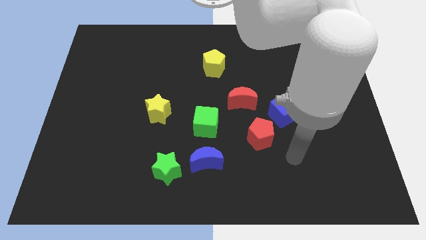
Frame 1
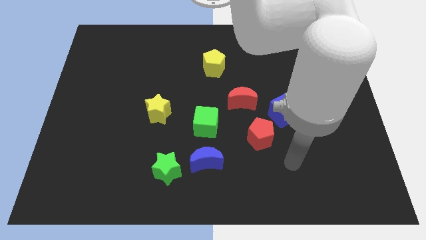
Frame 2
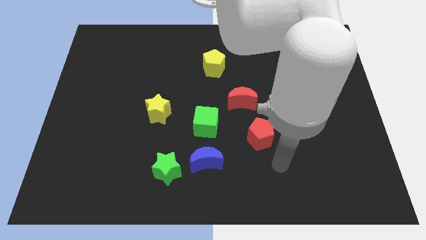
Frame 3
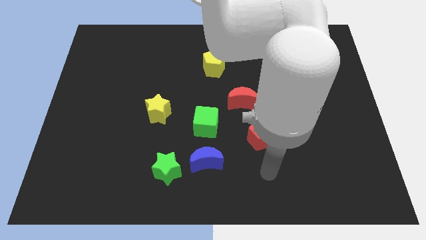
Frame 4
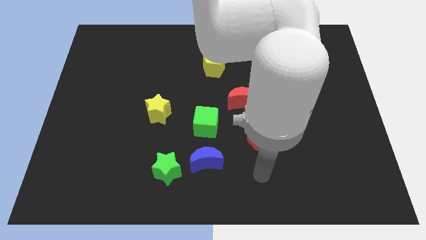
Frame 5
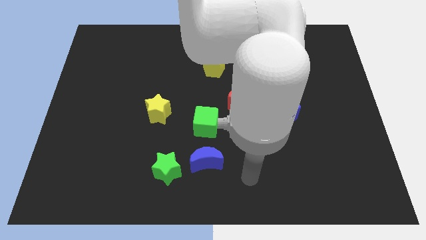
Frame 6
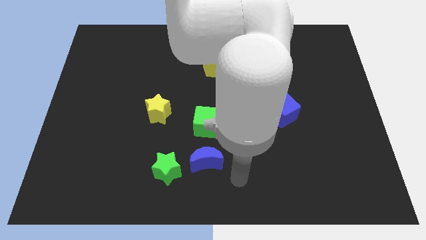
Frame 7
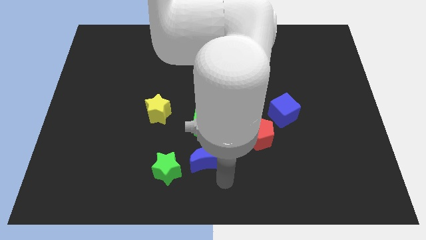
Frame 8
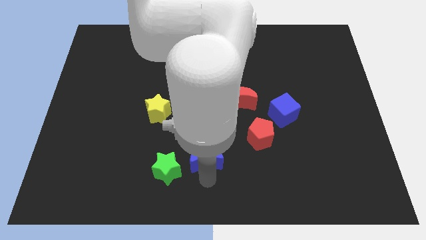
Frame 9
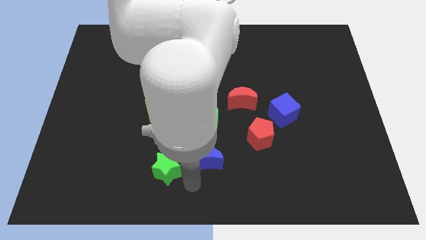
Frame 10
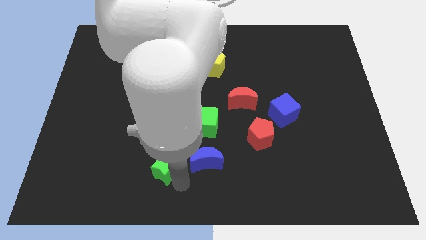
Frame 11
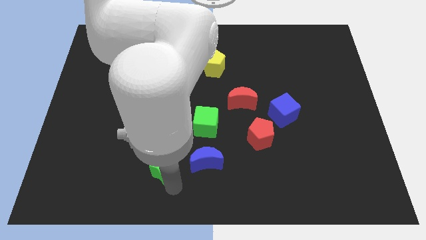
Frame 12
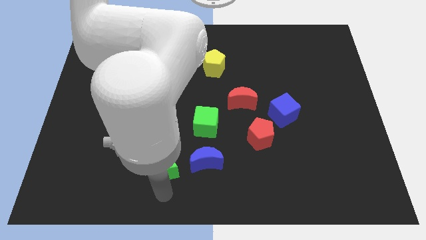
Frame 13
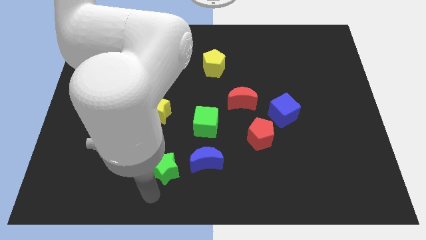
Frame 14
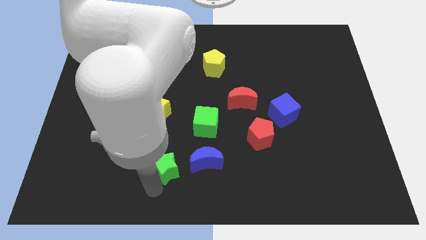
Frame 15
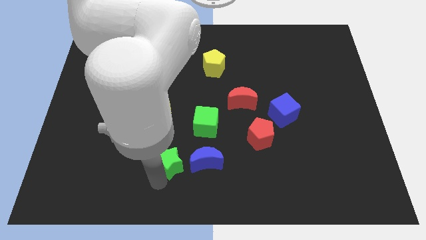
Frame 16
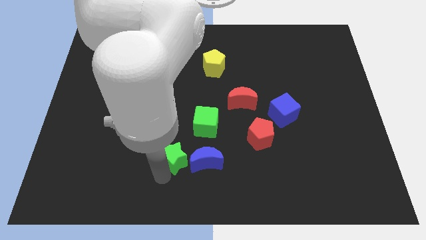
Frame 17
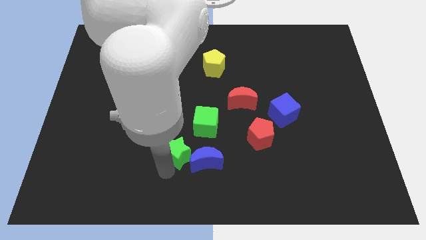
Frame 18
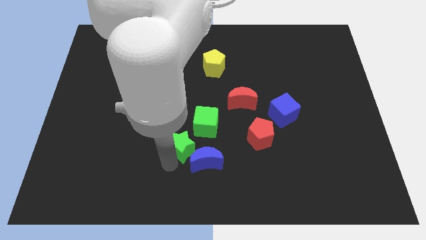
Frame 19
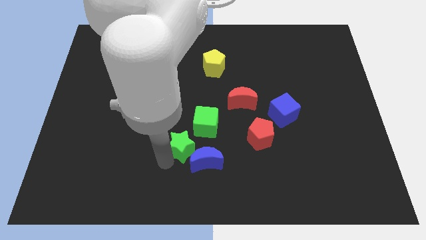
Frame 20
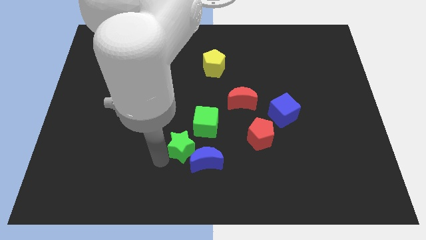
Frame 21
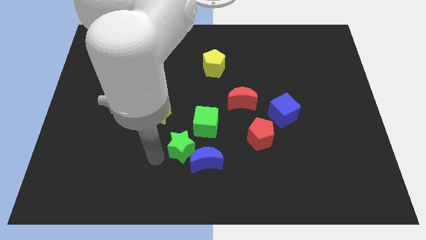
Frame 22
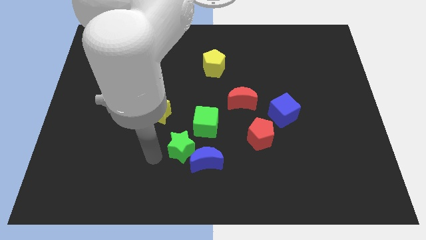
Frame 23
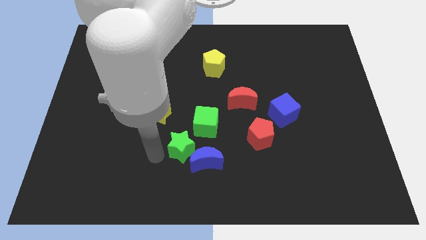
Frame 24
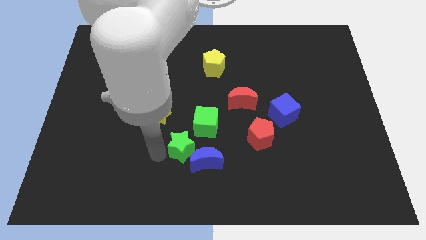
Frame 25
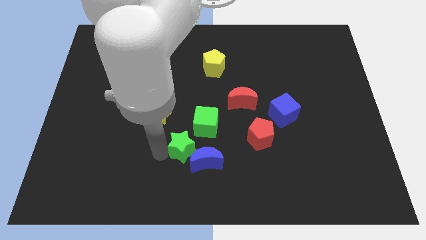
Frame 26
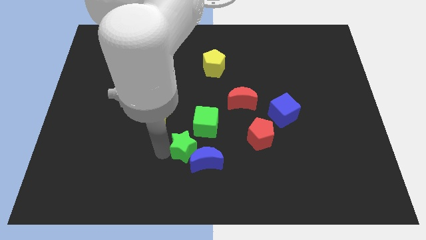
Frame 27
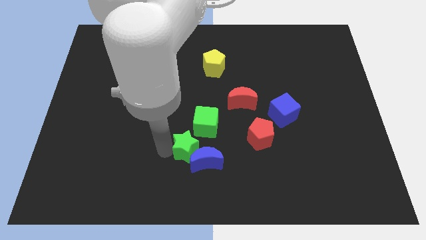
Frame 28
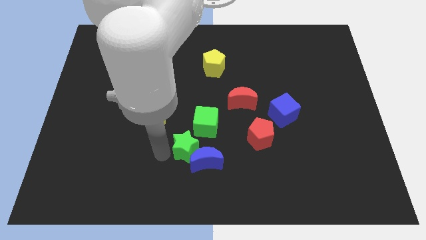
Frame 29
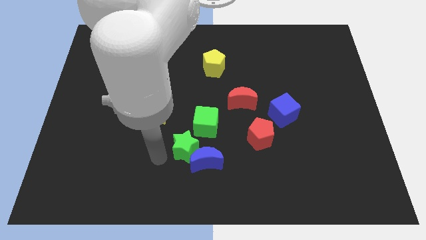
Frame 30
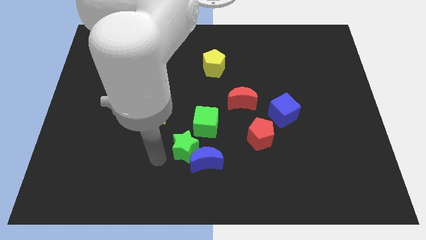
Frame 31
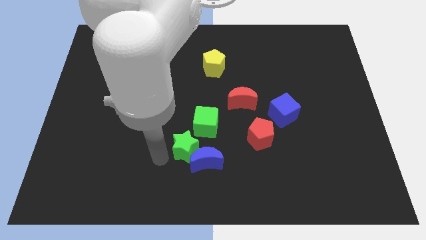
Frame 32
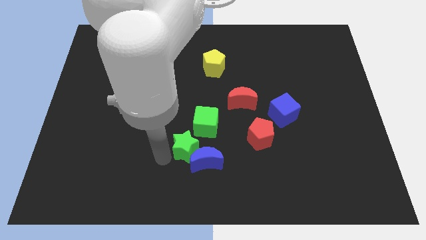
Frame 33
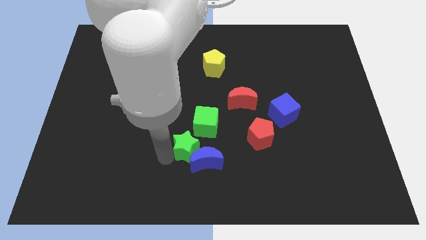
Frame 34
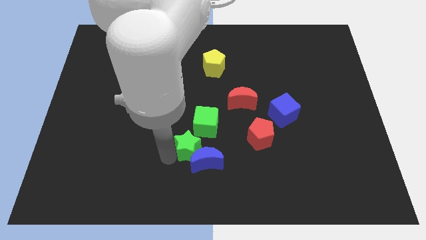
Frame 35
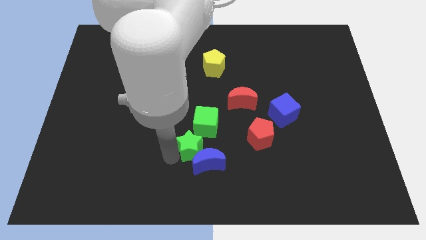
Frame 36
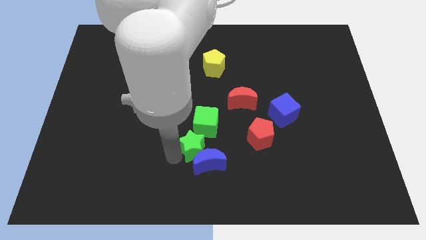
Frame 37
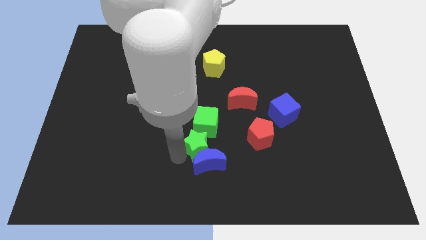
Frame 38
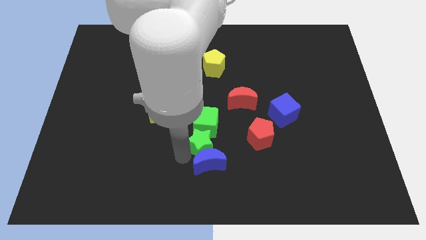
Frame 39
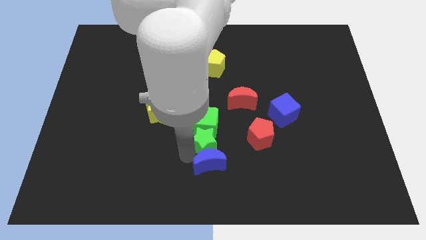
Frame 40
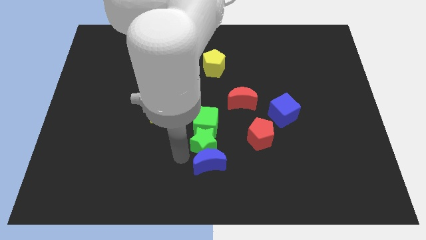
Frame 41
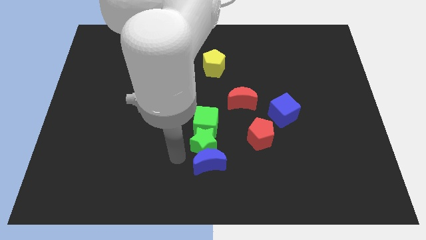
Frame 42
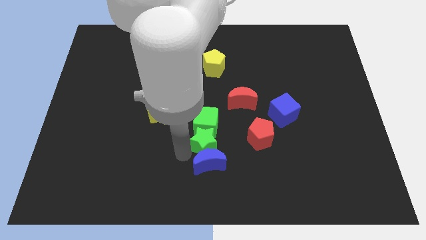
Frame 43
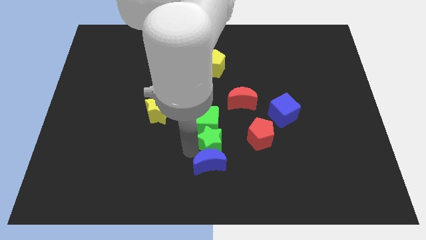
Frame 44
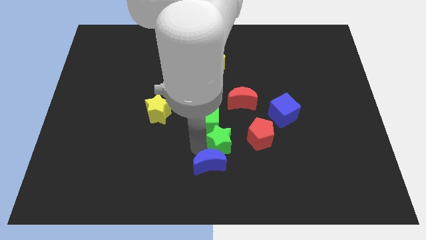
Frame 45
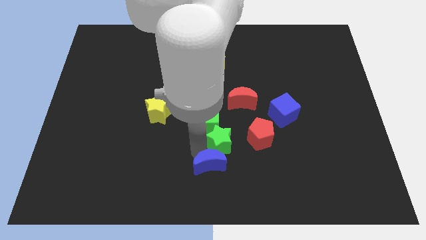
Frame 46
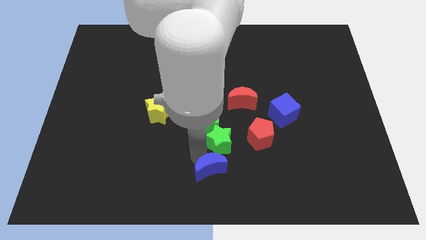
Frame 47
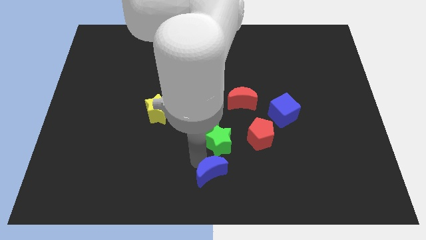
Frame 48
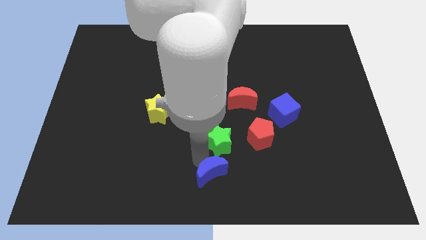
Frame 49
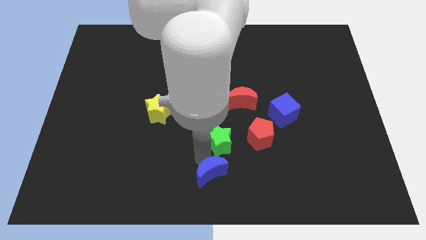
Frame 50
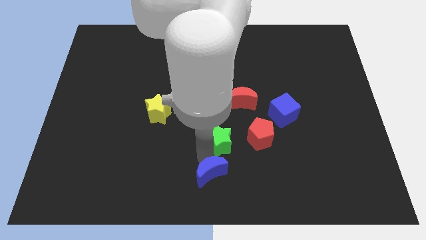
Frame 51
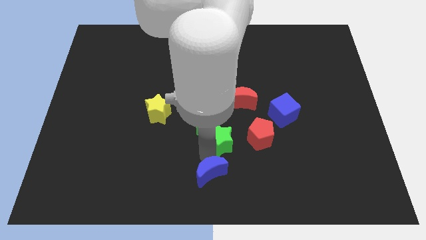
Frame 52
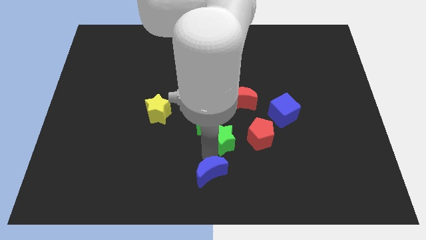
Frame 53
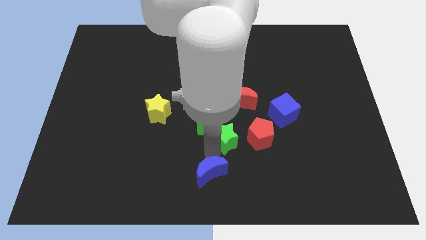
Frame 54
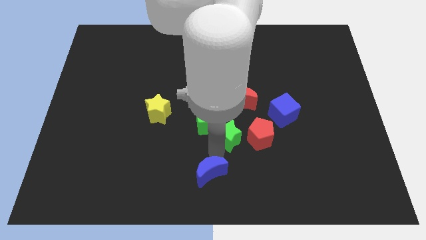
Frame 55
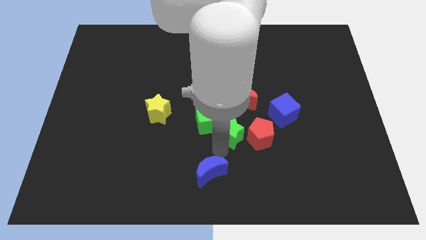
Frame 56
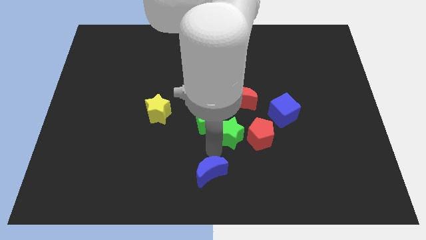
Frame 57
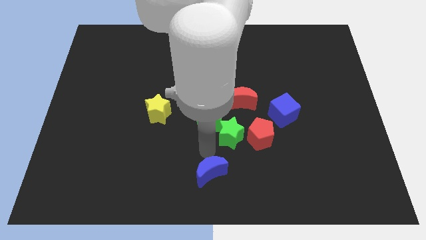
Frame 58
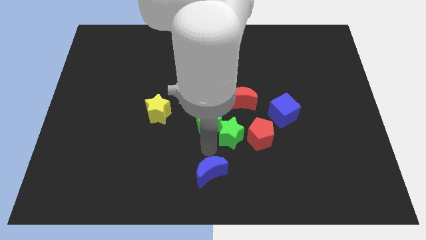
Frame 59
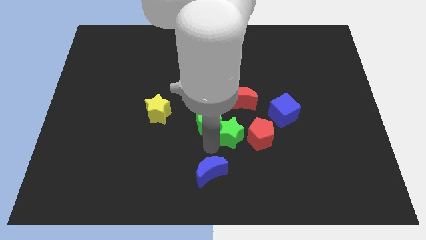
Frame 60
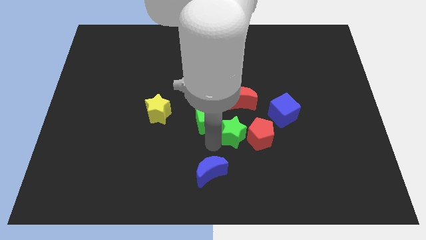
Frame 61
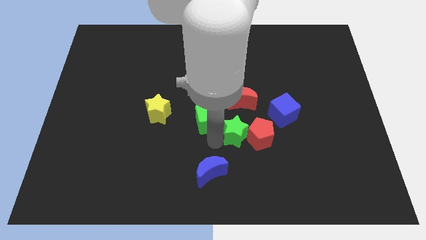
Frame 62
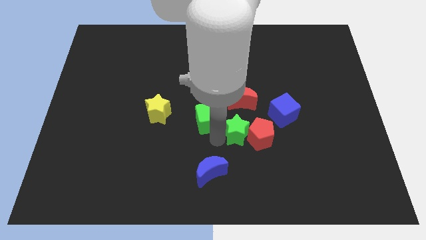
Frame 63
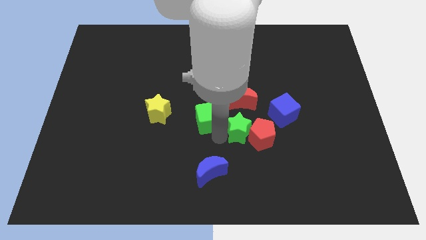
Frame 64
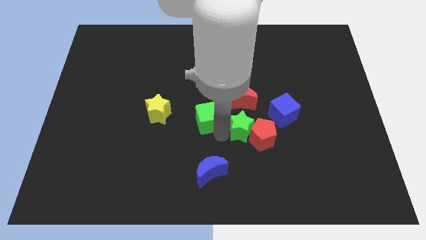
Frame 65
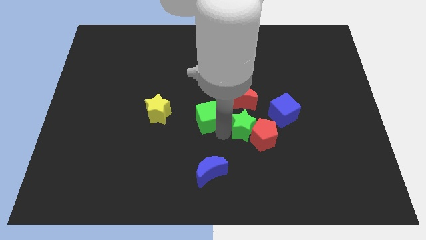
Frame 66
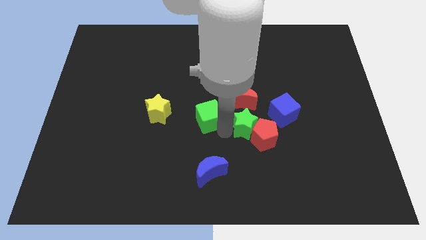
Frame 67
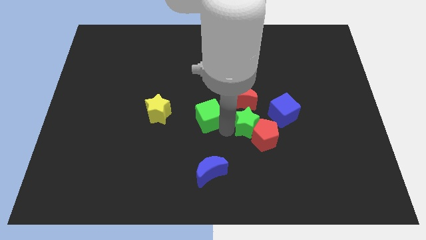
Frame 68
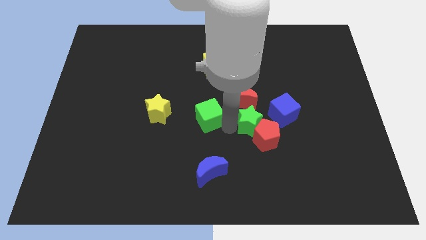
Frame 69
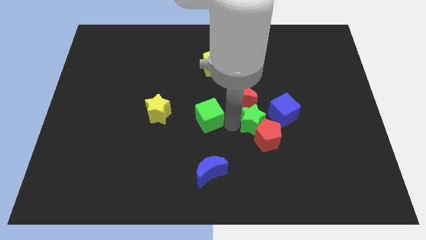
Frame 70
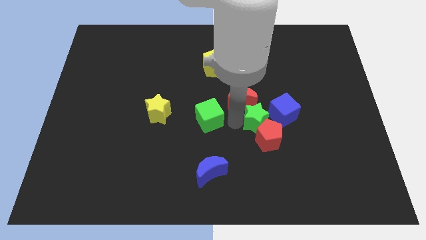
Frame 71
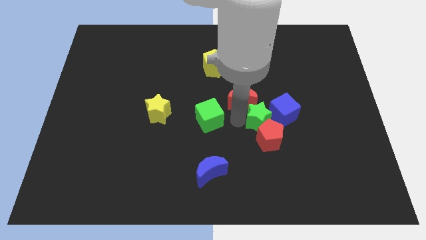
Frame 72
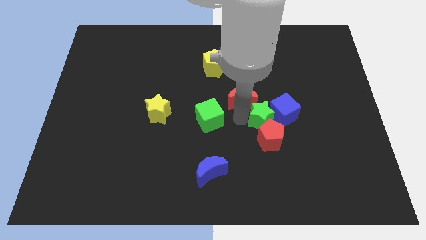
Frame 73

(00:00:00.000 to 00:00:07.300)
move the green star to the blue cube

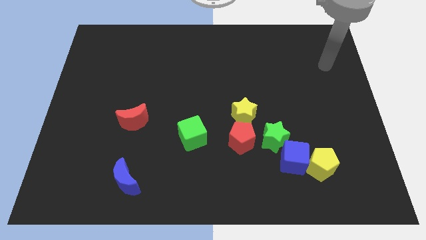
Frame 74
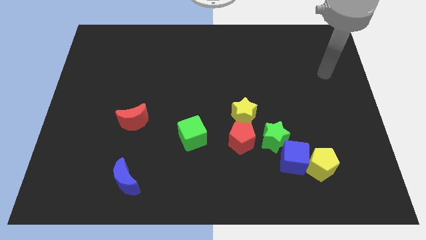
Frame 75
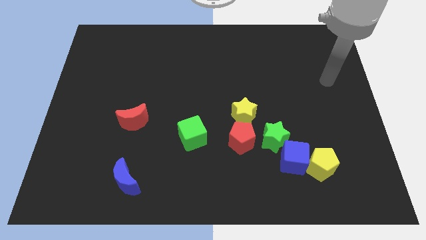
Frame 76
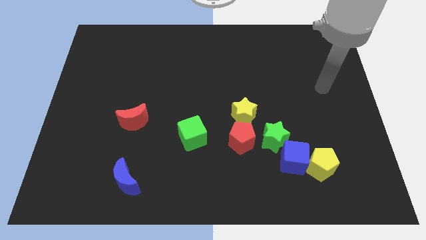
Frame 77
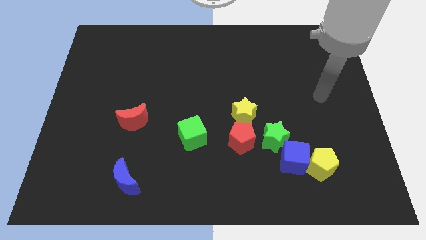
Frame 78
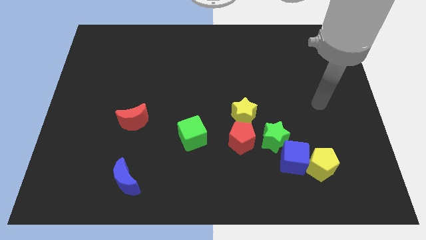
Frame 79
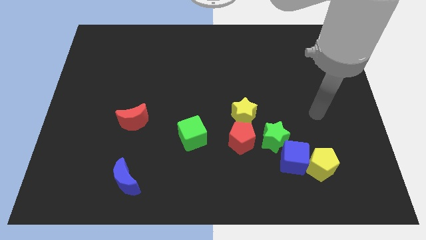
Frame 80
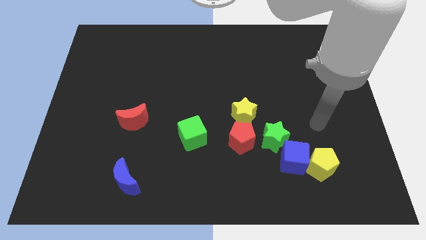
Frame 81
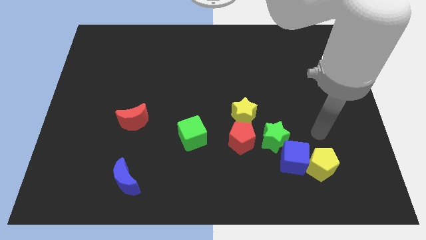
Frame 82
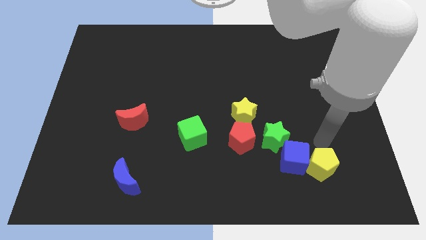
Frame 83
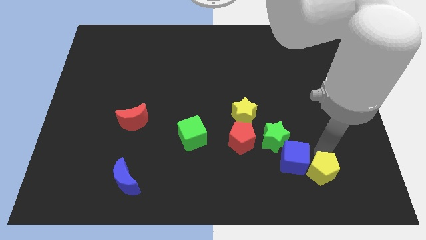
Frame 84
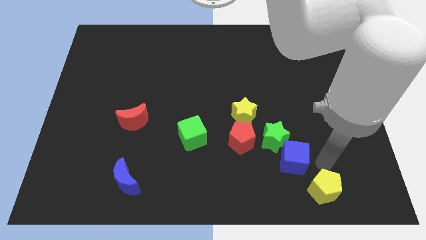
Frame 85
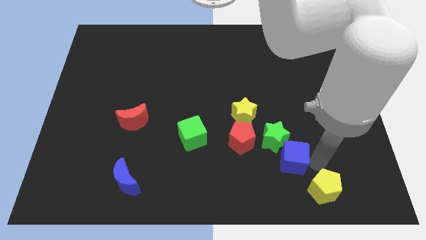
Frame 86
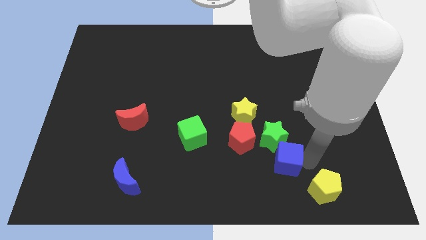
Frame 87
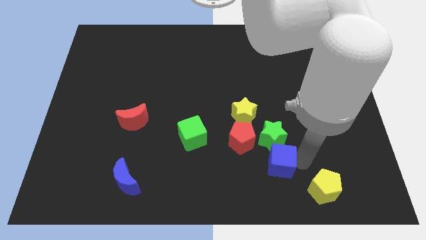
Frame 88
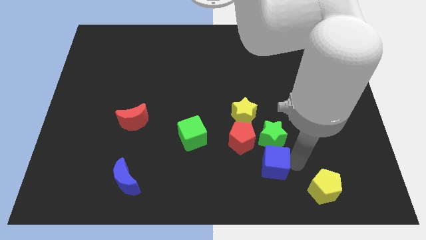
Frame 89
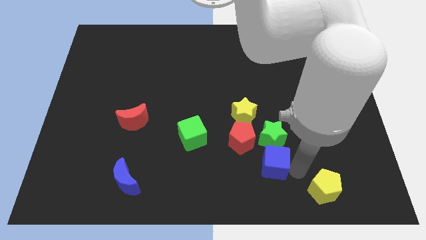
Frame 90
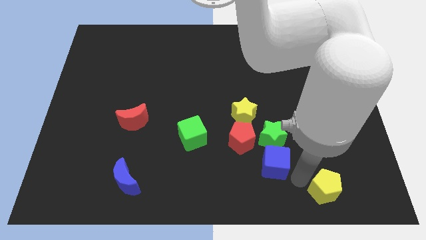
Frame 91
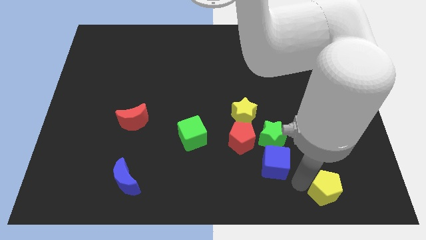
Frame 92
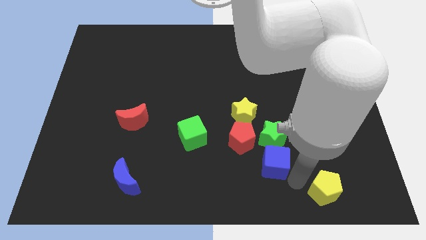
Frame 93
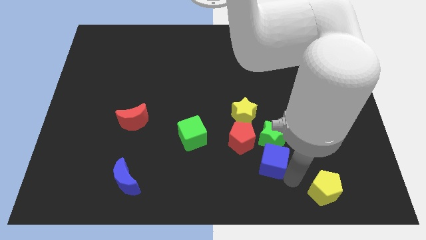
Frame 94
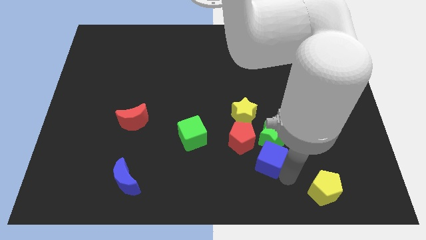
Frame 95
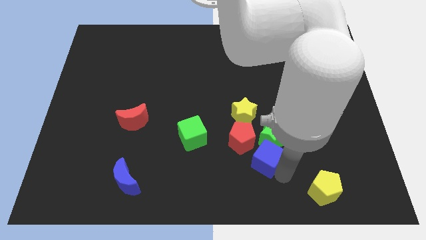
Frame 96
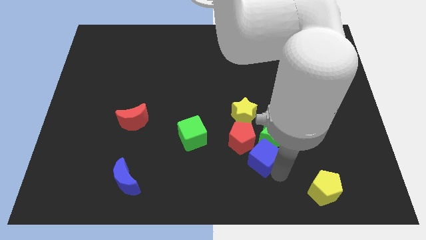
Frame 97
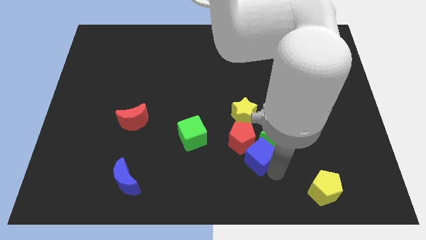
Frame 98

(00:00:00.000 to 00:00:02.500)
move the blue cube next to the red pentagon
